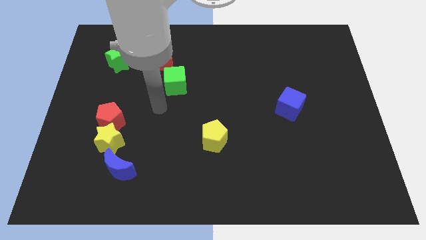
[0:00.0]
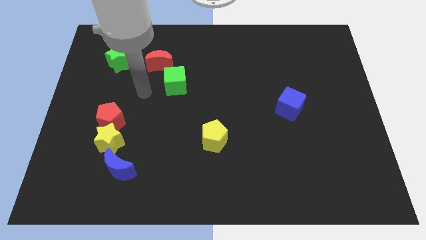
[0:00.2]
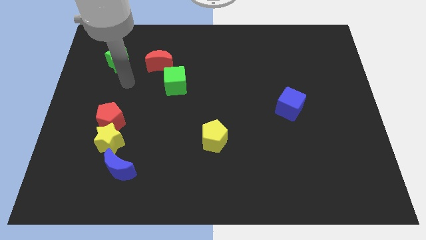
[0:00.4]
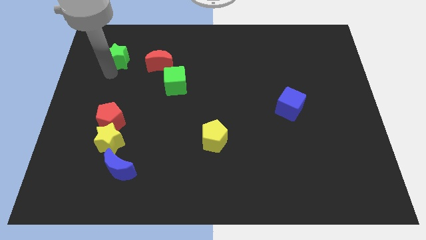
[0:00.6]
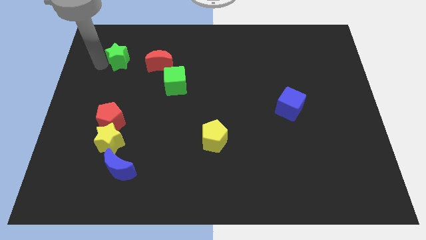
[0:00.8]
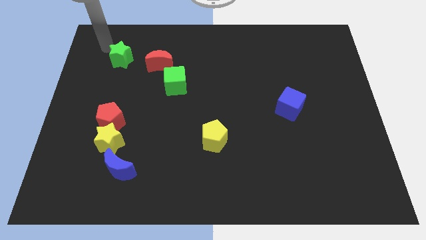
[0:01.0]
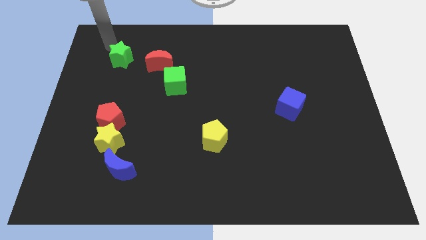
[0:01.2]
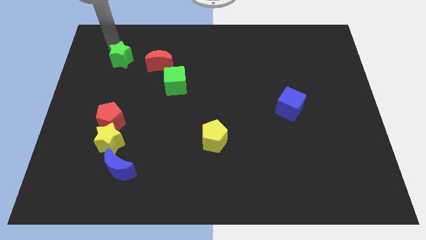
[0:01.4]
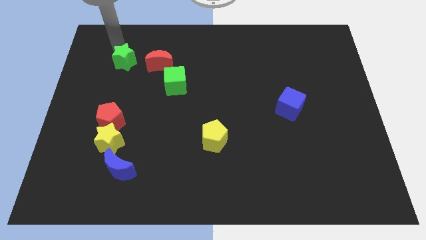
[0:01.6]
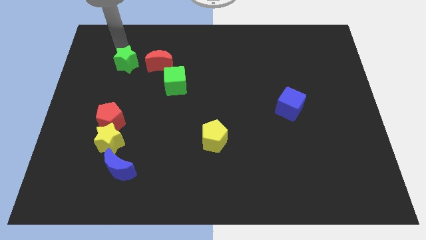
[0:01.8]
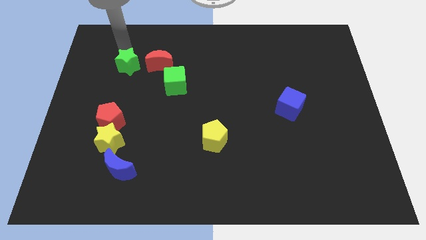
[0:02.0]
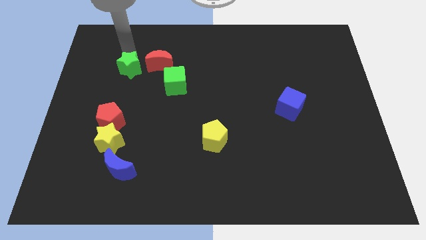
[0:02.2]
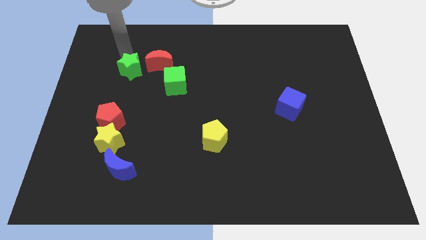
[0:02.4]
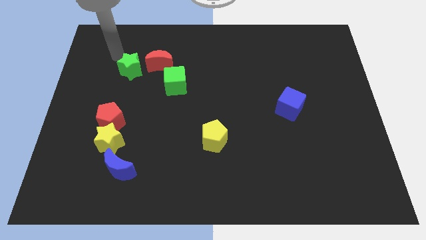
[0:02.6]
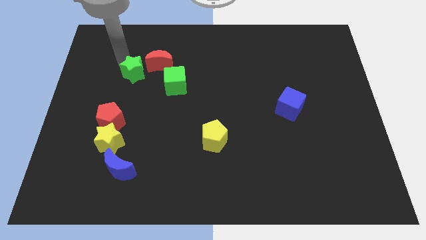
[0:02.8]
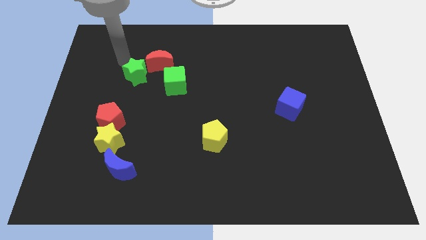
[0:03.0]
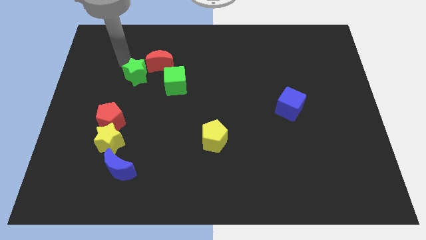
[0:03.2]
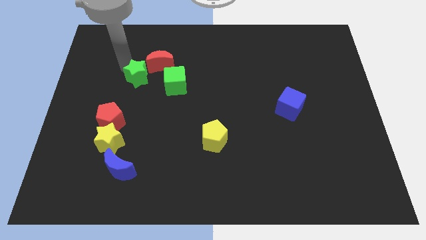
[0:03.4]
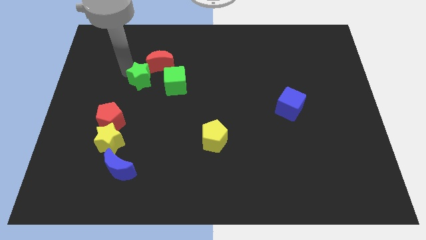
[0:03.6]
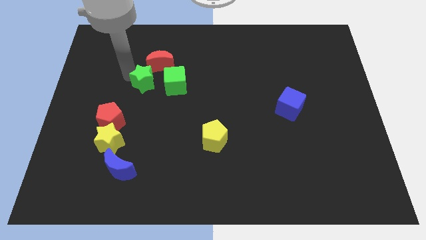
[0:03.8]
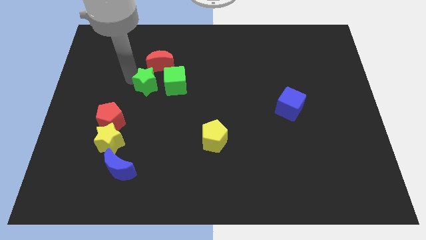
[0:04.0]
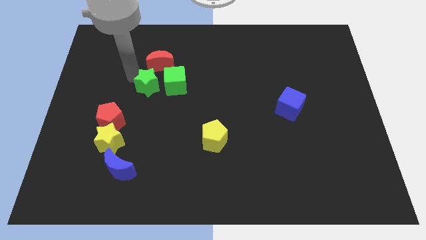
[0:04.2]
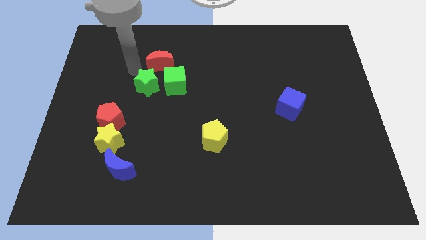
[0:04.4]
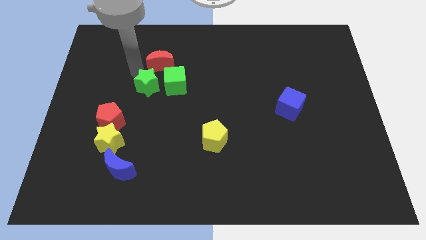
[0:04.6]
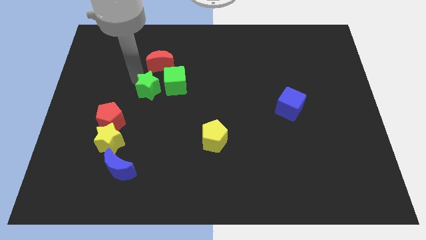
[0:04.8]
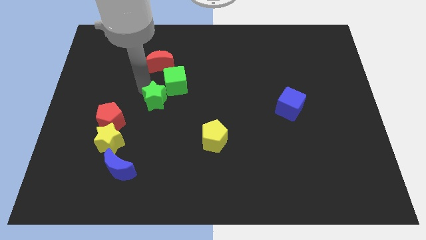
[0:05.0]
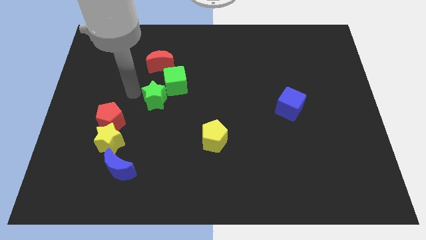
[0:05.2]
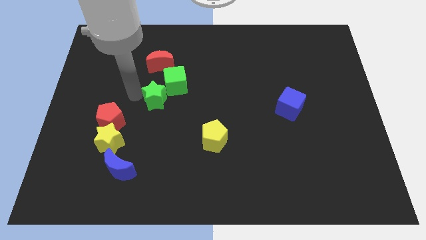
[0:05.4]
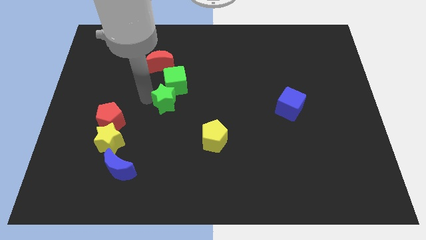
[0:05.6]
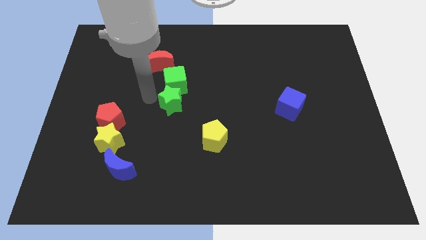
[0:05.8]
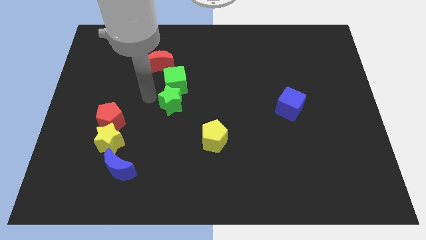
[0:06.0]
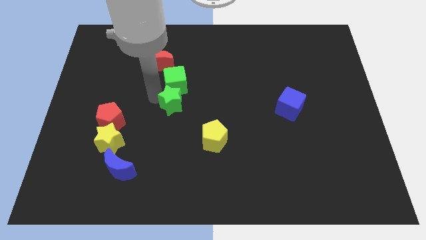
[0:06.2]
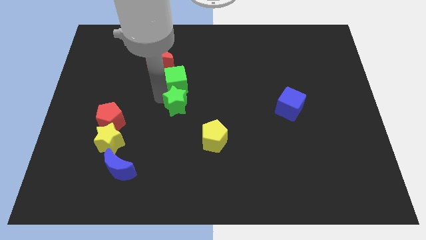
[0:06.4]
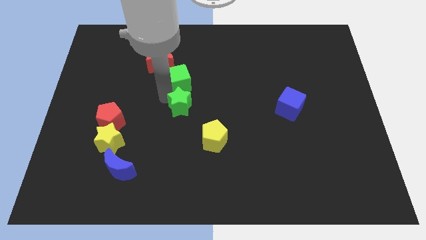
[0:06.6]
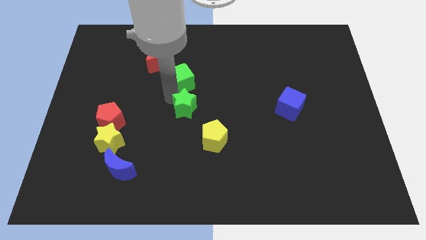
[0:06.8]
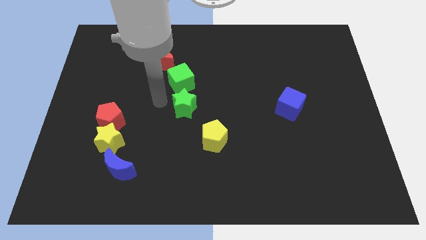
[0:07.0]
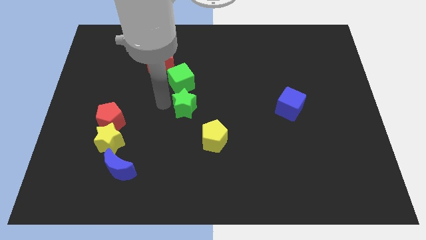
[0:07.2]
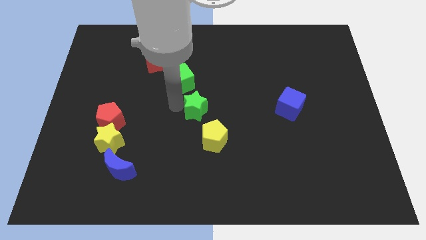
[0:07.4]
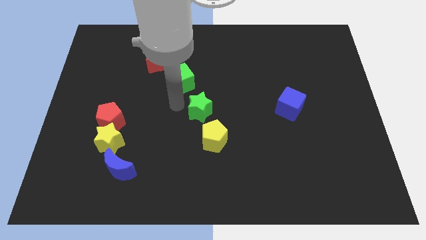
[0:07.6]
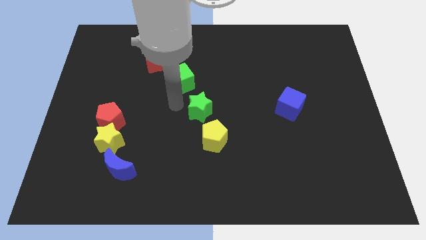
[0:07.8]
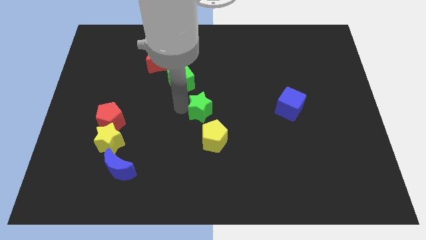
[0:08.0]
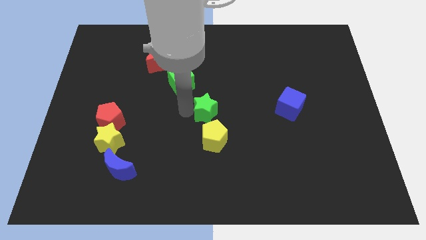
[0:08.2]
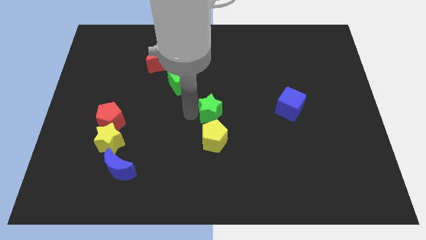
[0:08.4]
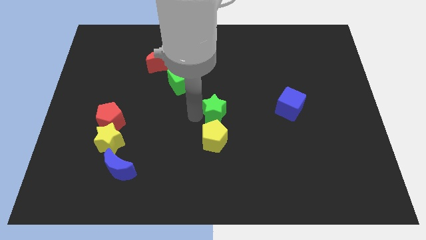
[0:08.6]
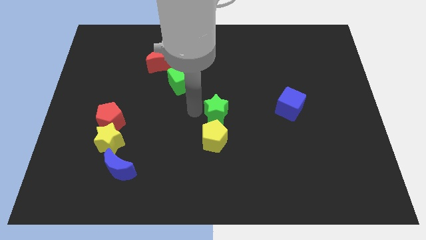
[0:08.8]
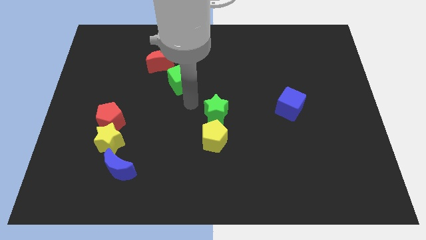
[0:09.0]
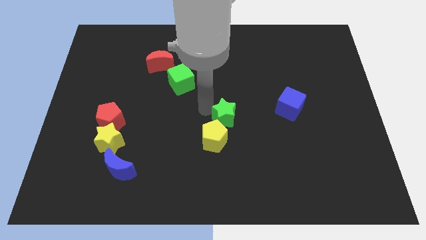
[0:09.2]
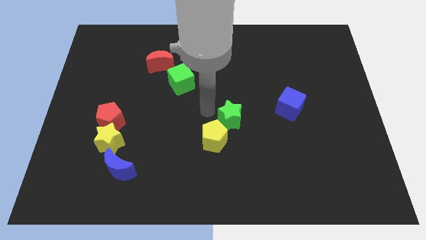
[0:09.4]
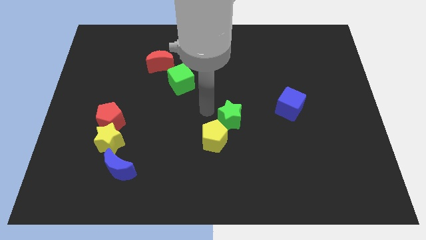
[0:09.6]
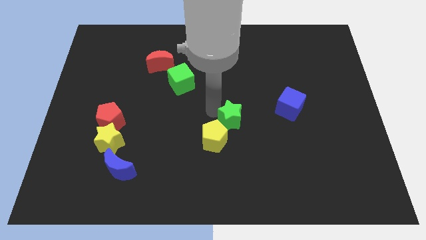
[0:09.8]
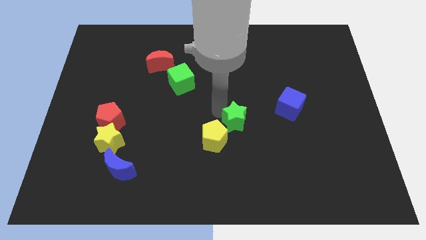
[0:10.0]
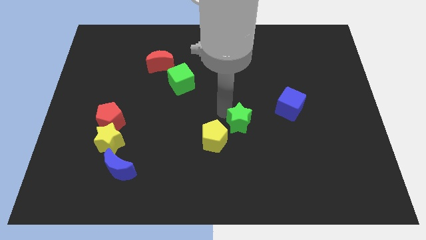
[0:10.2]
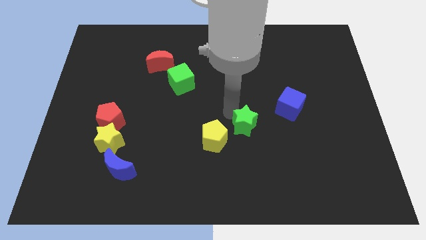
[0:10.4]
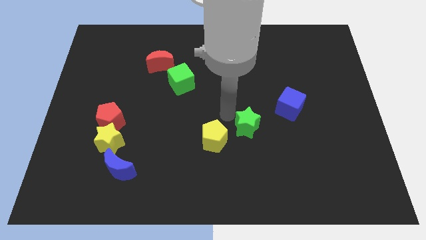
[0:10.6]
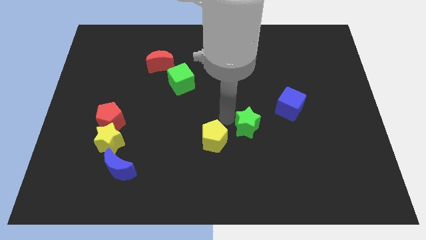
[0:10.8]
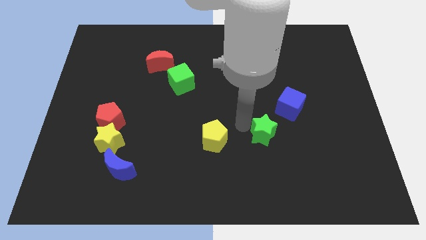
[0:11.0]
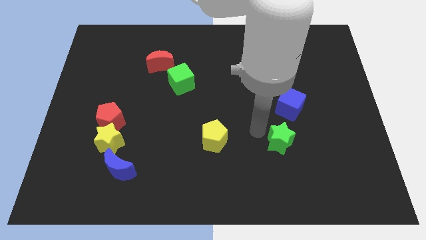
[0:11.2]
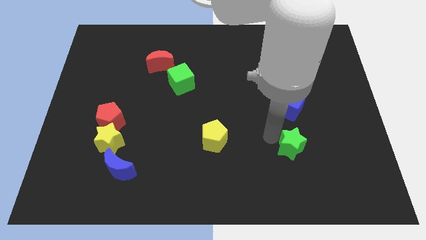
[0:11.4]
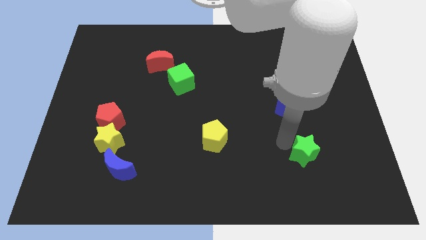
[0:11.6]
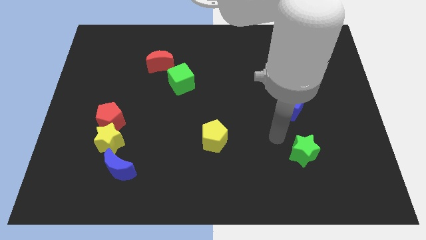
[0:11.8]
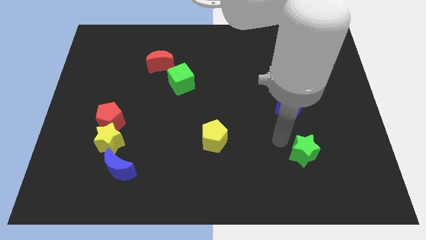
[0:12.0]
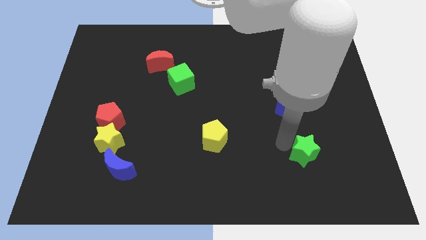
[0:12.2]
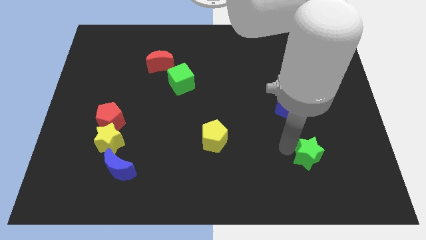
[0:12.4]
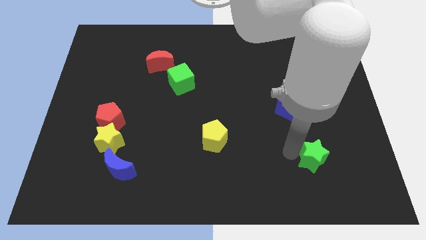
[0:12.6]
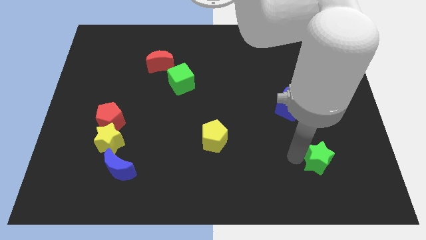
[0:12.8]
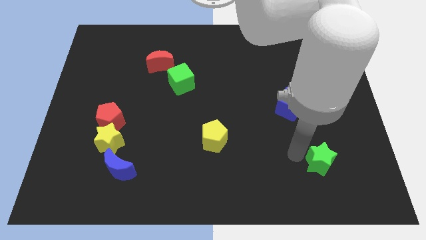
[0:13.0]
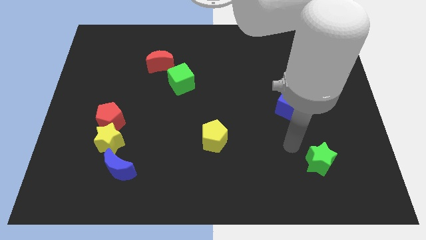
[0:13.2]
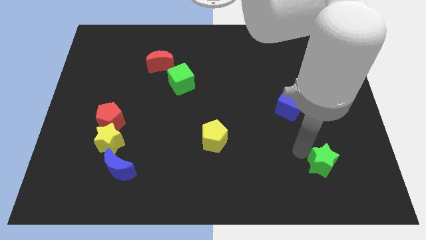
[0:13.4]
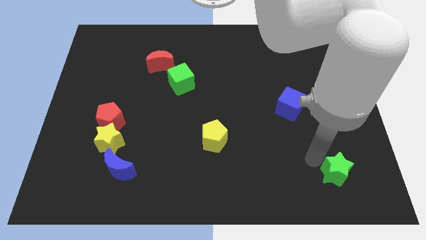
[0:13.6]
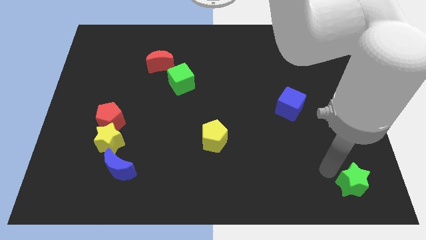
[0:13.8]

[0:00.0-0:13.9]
push the green star to the bottom right of the board
